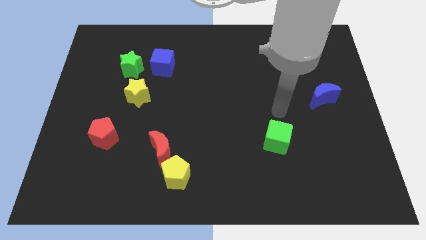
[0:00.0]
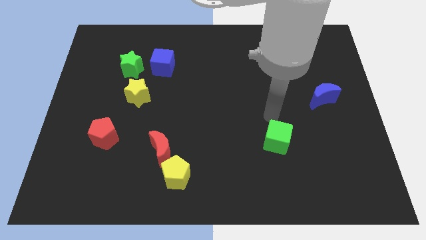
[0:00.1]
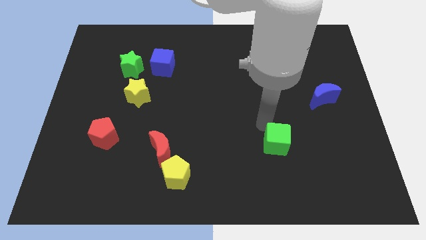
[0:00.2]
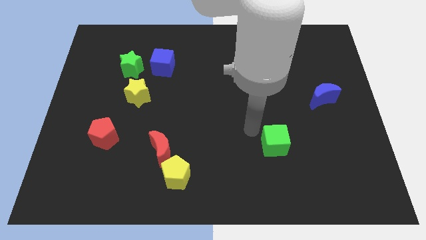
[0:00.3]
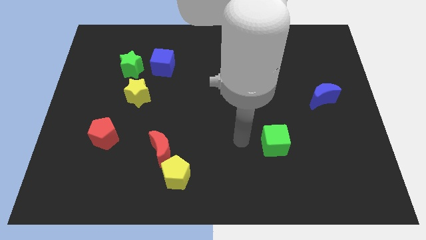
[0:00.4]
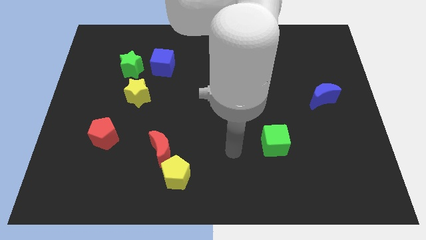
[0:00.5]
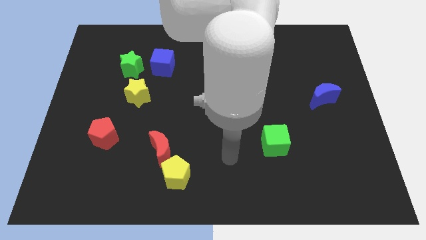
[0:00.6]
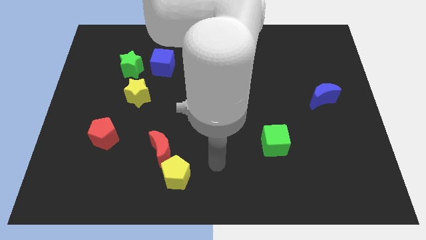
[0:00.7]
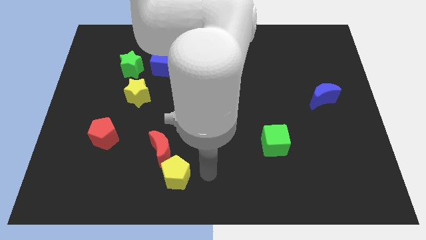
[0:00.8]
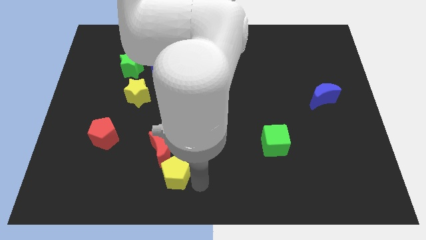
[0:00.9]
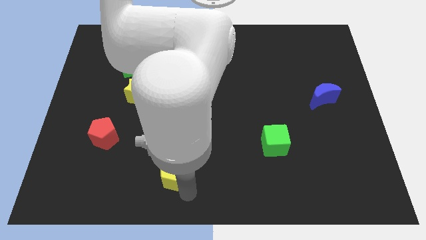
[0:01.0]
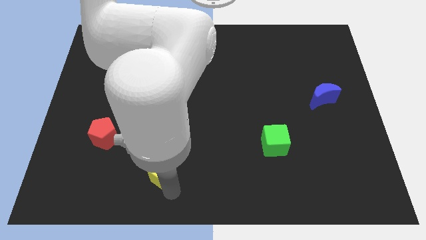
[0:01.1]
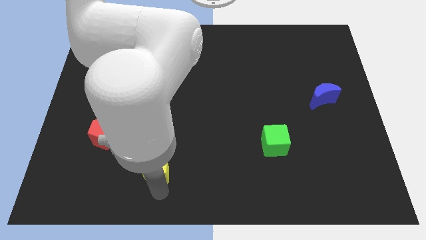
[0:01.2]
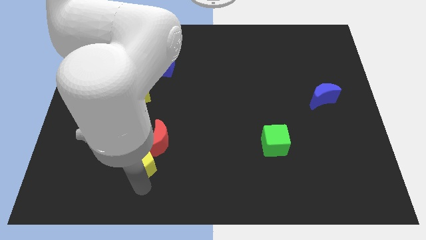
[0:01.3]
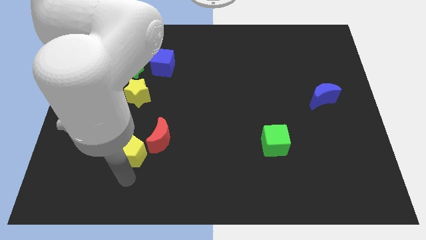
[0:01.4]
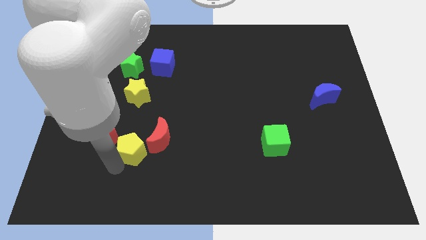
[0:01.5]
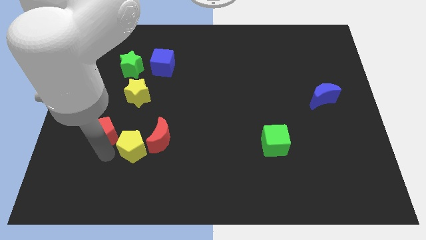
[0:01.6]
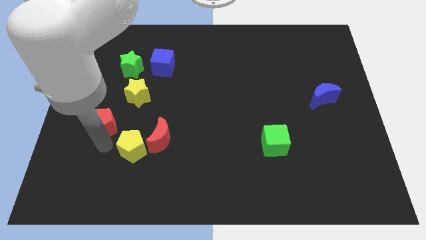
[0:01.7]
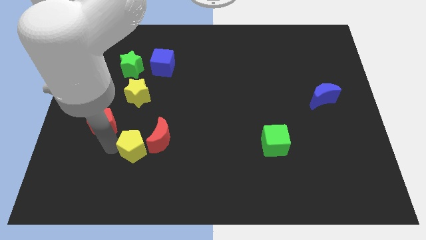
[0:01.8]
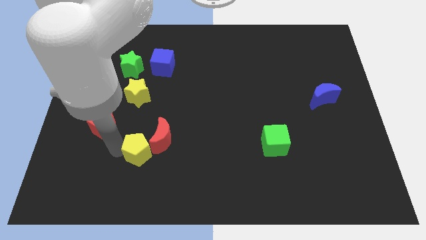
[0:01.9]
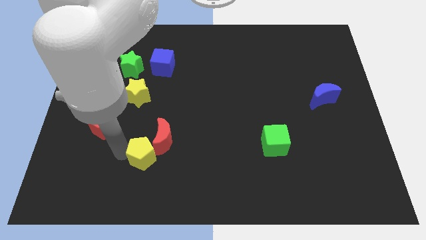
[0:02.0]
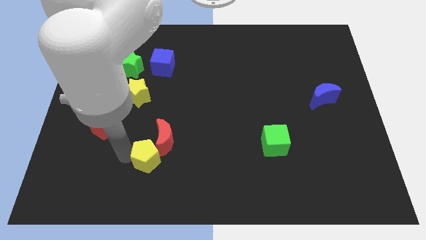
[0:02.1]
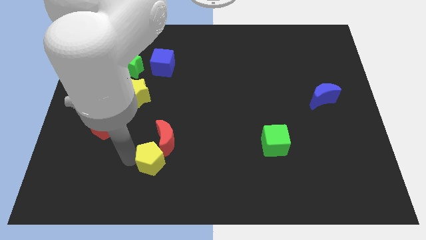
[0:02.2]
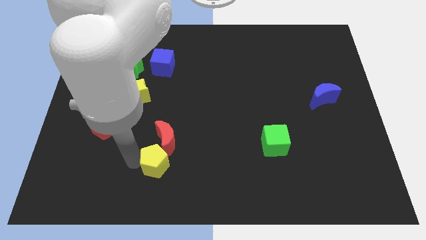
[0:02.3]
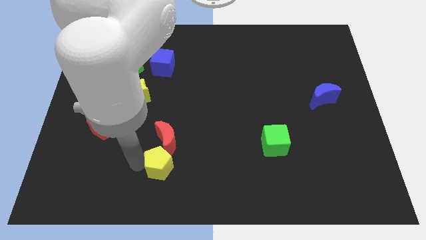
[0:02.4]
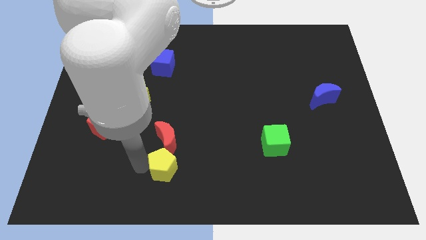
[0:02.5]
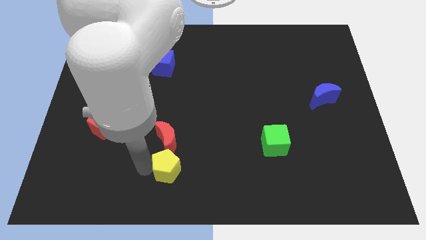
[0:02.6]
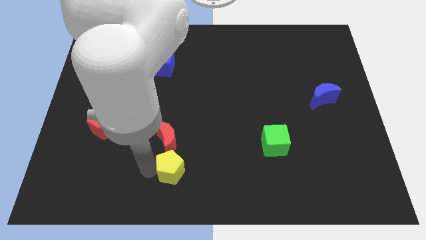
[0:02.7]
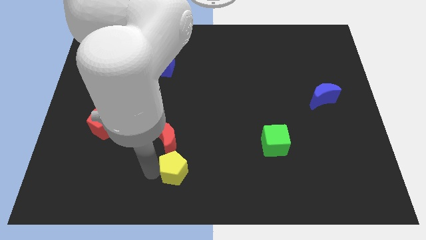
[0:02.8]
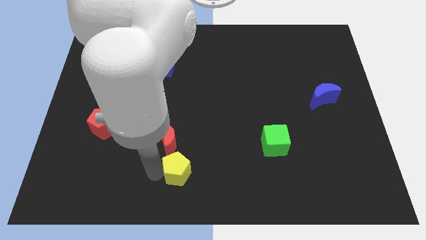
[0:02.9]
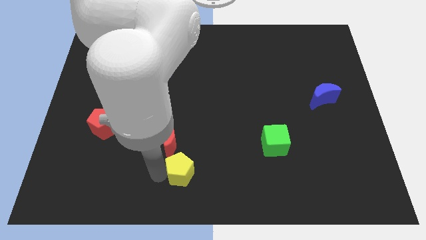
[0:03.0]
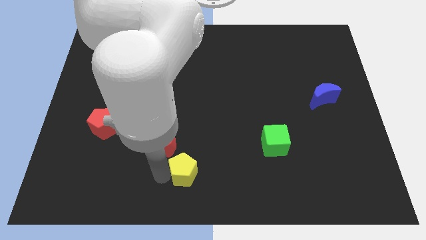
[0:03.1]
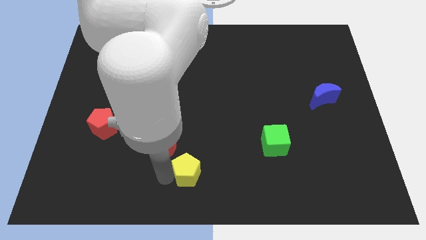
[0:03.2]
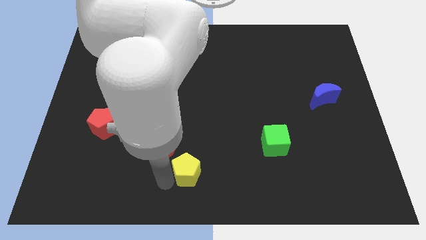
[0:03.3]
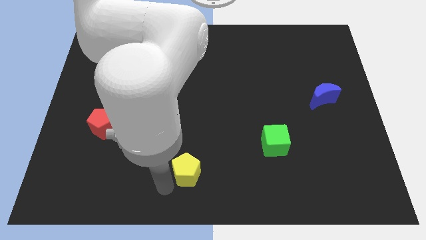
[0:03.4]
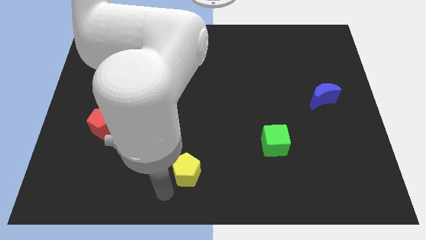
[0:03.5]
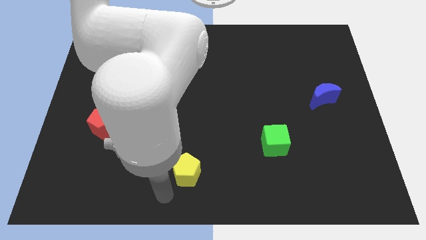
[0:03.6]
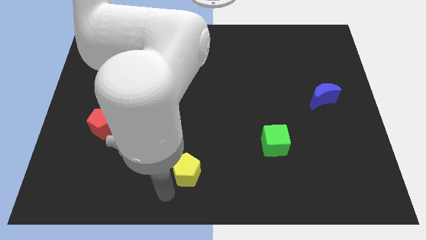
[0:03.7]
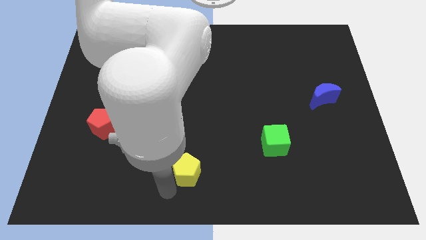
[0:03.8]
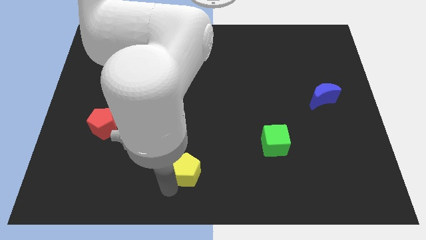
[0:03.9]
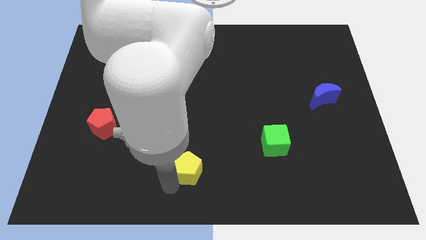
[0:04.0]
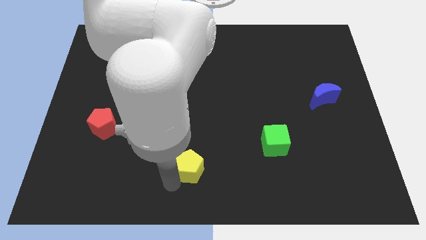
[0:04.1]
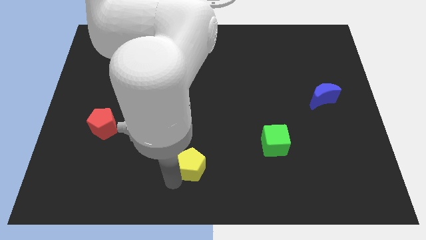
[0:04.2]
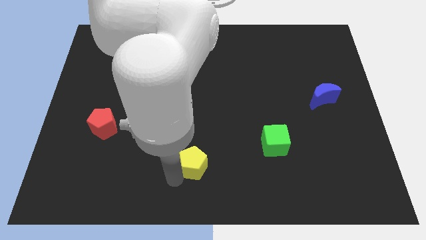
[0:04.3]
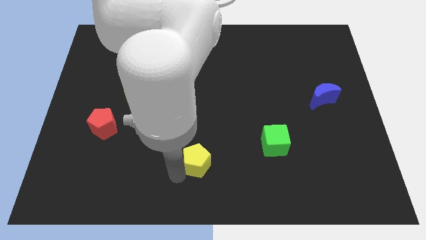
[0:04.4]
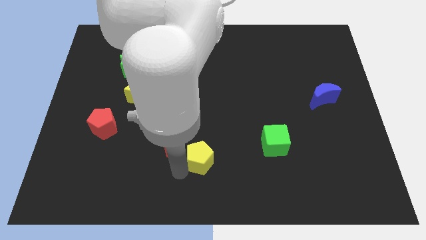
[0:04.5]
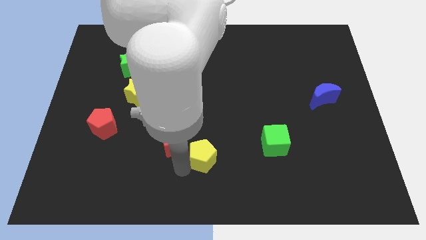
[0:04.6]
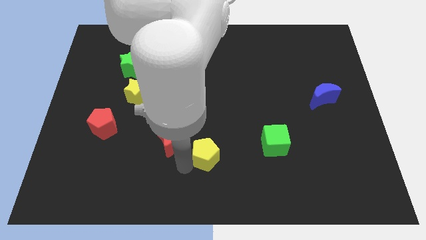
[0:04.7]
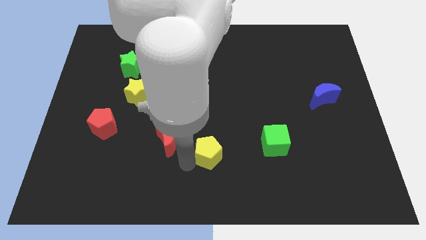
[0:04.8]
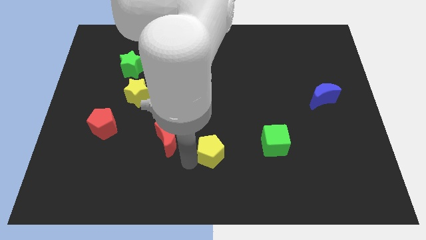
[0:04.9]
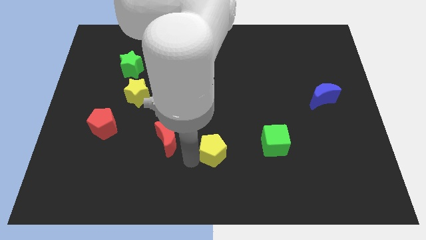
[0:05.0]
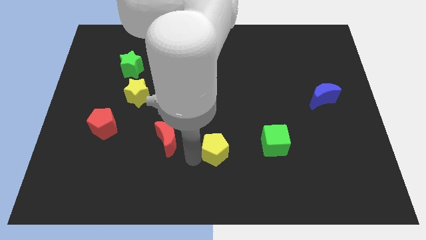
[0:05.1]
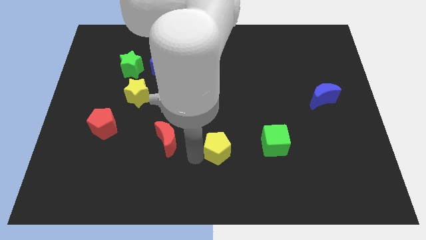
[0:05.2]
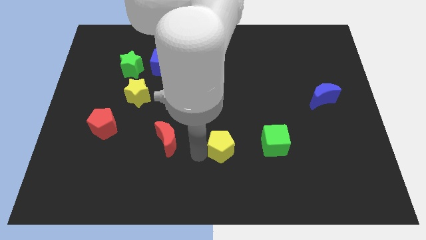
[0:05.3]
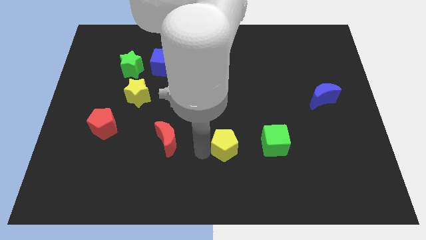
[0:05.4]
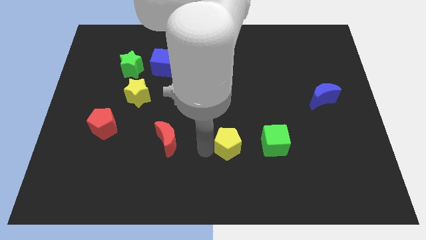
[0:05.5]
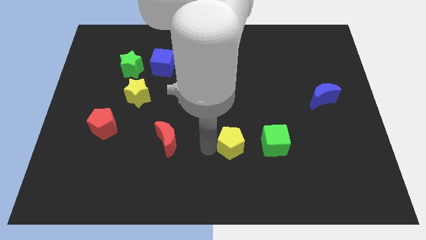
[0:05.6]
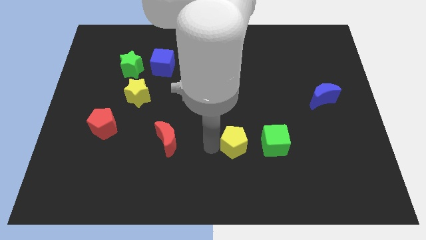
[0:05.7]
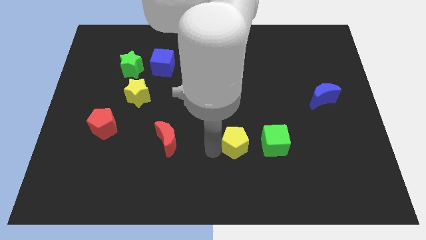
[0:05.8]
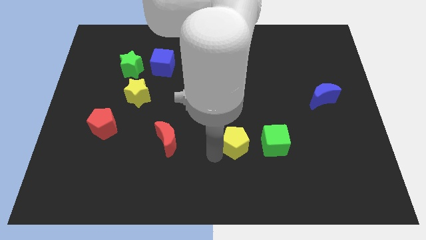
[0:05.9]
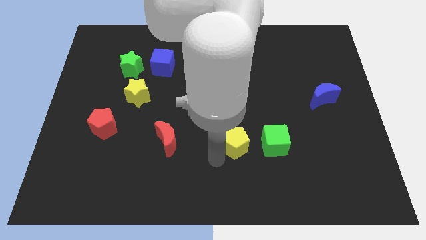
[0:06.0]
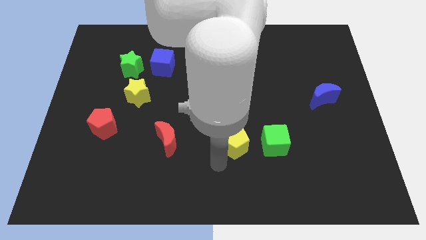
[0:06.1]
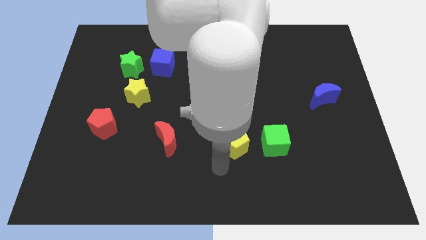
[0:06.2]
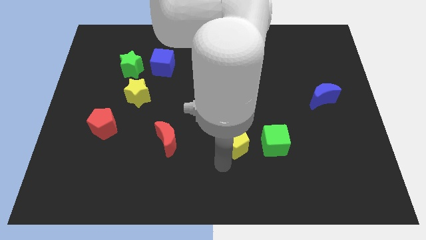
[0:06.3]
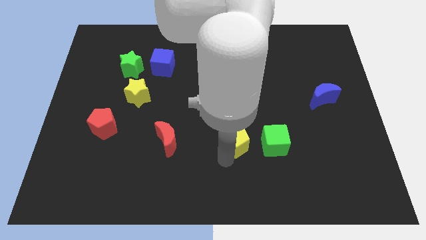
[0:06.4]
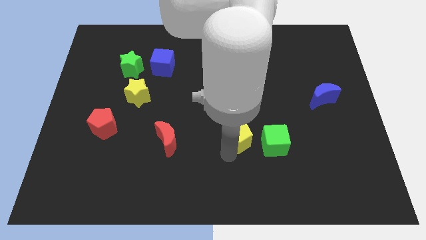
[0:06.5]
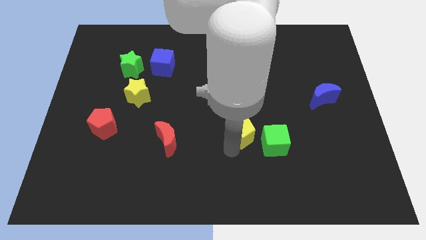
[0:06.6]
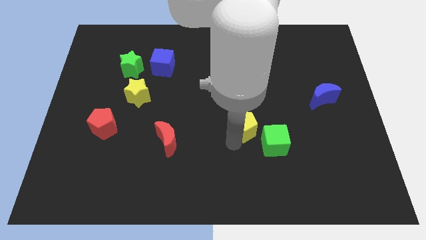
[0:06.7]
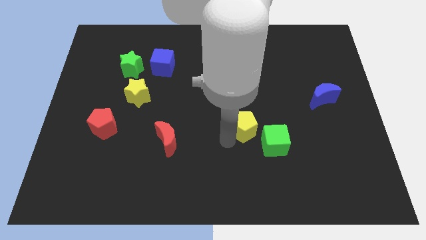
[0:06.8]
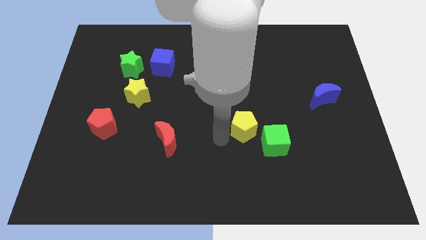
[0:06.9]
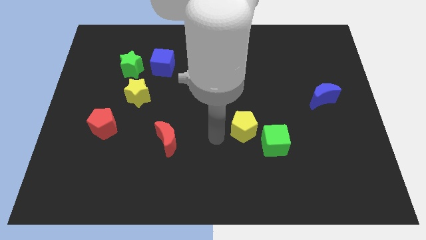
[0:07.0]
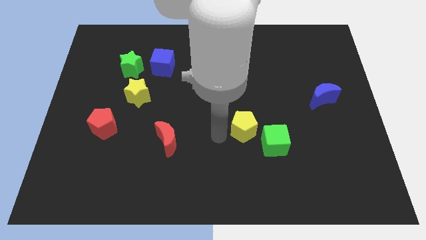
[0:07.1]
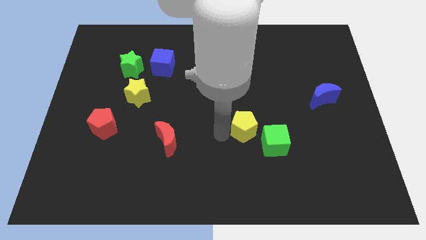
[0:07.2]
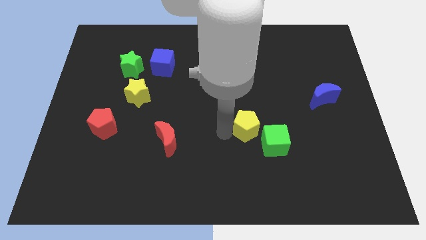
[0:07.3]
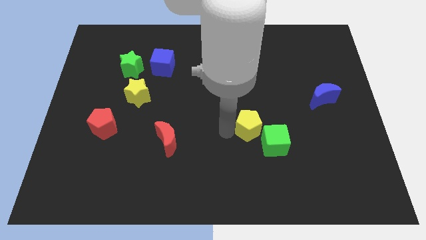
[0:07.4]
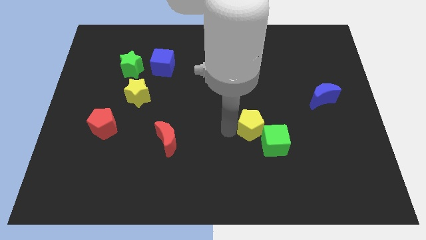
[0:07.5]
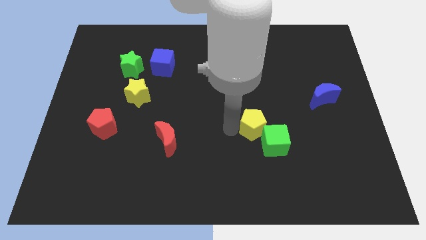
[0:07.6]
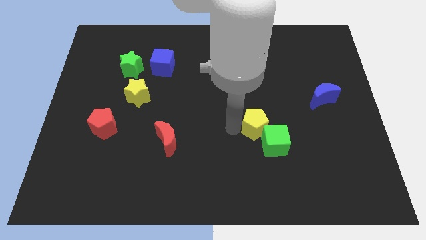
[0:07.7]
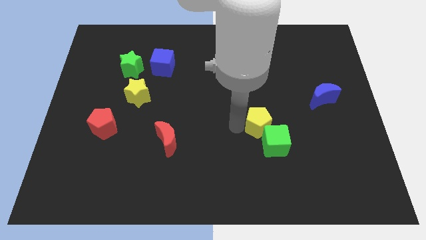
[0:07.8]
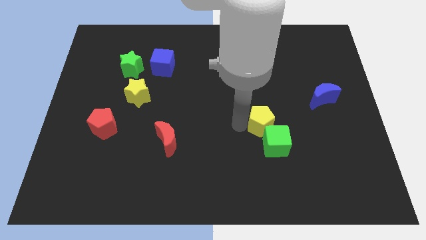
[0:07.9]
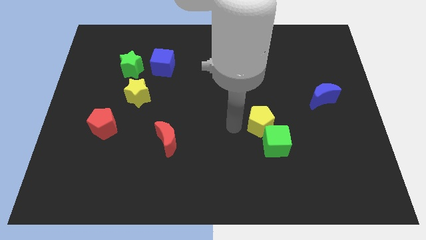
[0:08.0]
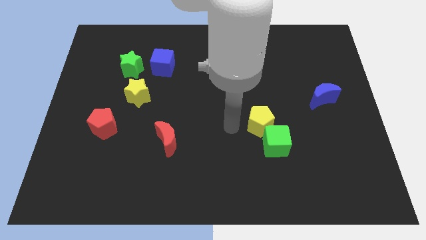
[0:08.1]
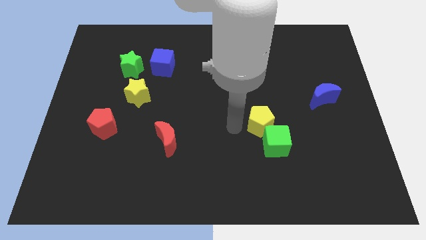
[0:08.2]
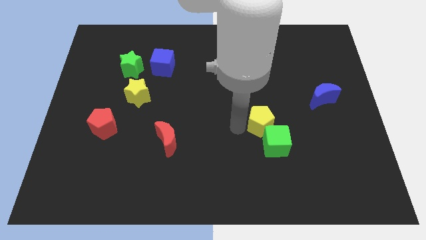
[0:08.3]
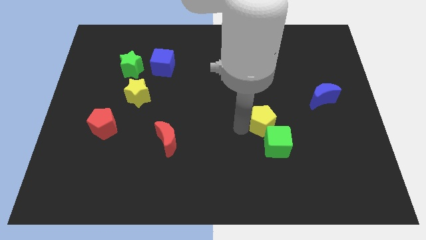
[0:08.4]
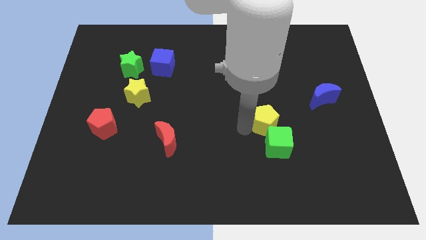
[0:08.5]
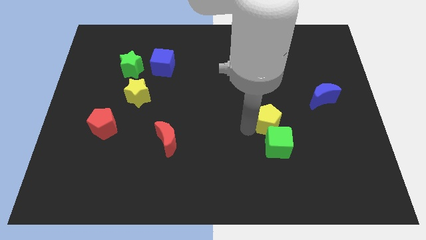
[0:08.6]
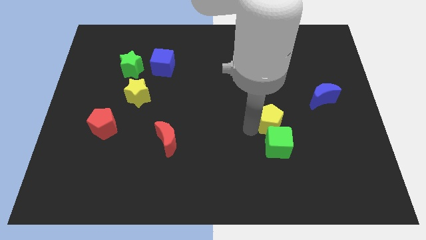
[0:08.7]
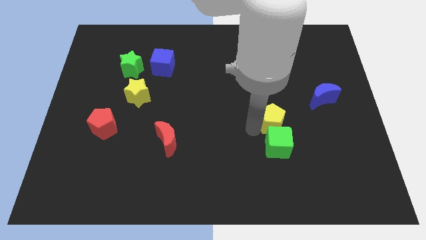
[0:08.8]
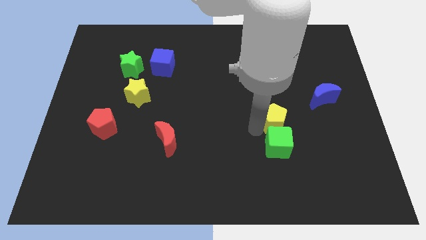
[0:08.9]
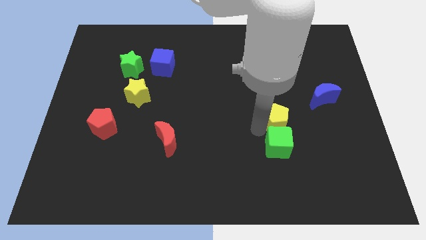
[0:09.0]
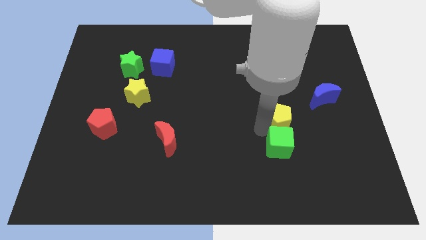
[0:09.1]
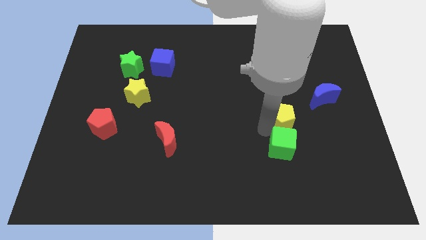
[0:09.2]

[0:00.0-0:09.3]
move the yellow pentagon diagonally down and to the left of the blue moon
